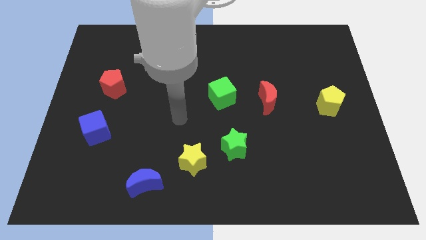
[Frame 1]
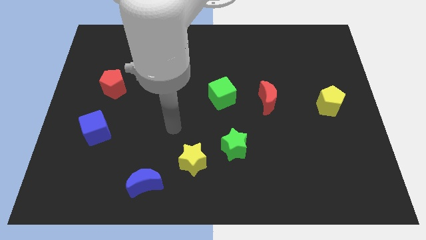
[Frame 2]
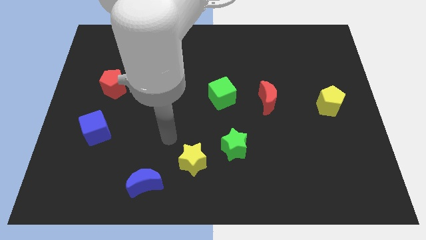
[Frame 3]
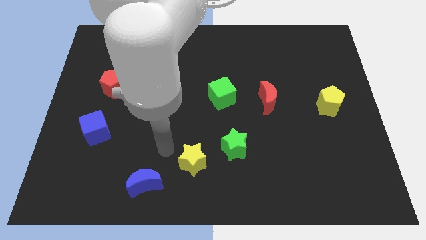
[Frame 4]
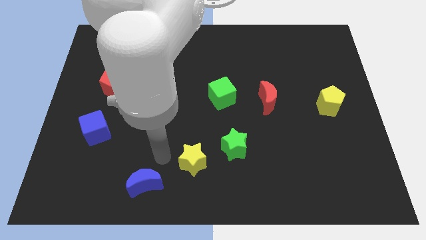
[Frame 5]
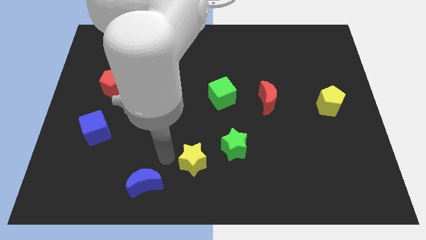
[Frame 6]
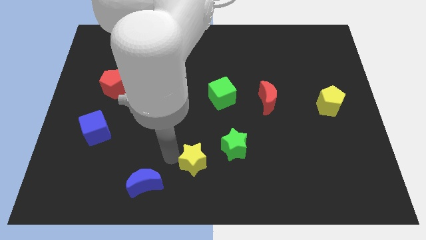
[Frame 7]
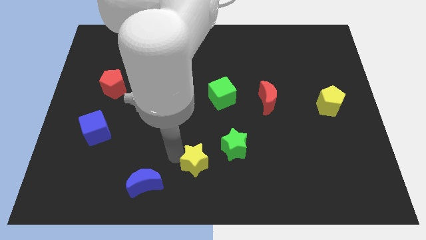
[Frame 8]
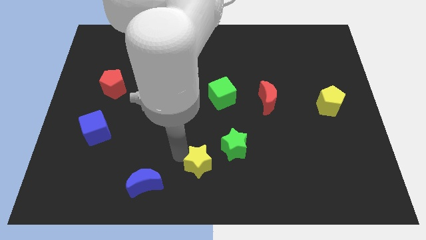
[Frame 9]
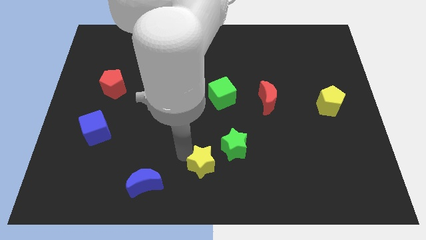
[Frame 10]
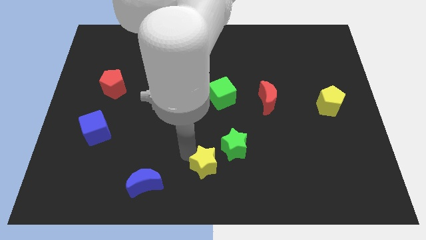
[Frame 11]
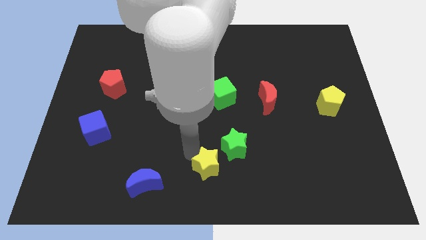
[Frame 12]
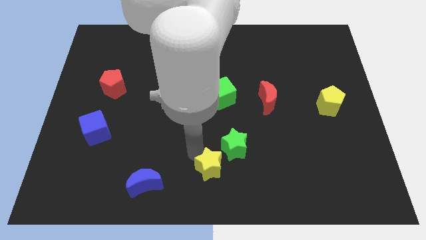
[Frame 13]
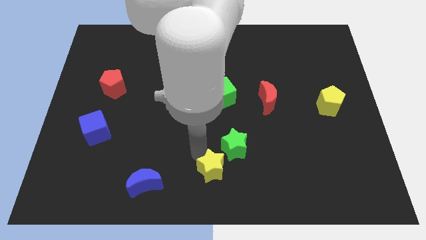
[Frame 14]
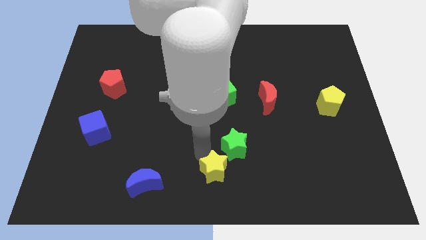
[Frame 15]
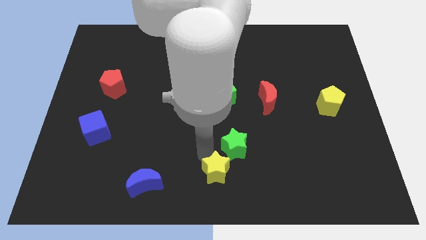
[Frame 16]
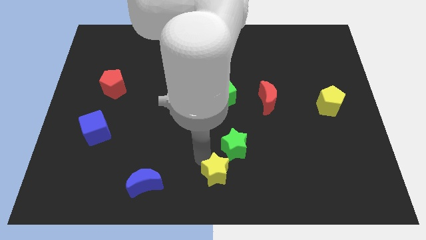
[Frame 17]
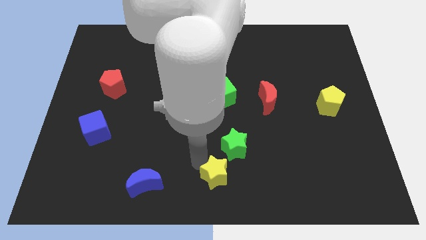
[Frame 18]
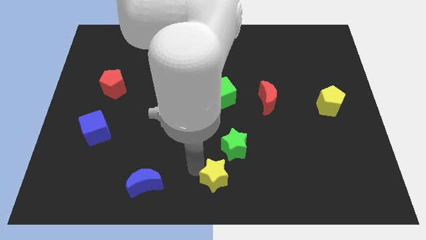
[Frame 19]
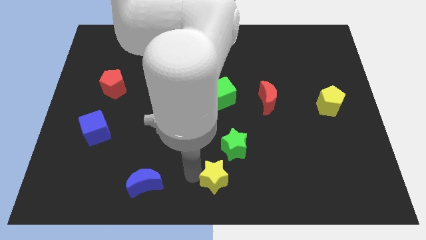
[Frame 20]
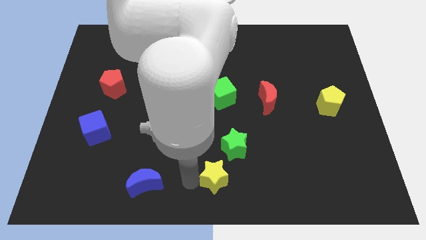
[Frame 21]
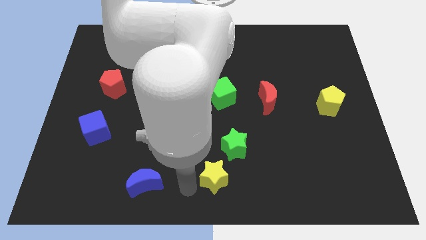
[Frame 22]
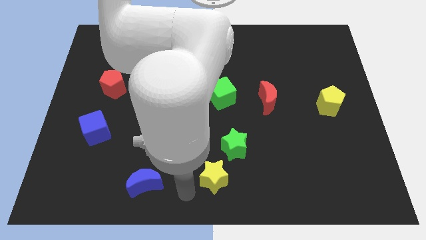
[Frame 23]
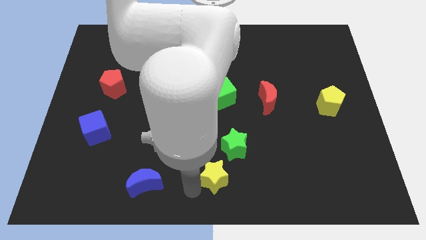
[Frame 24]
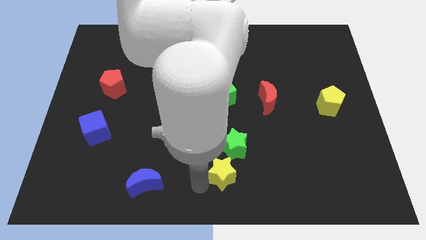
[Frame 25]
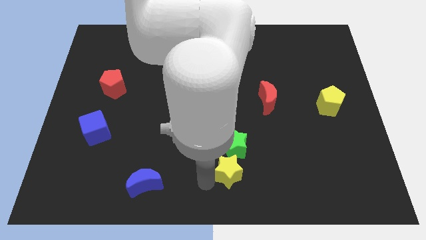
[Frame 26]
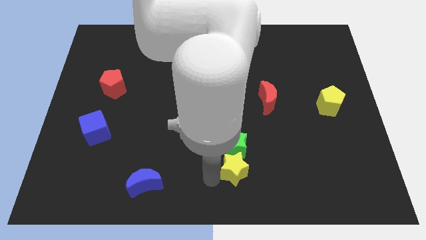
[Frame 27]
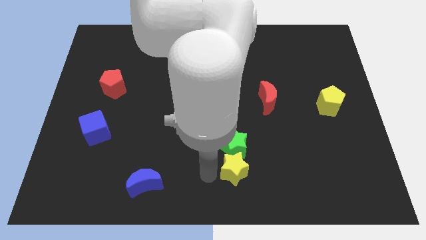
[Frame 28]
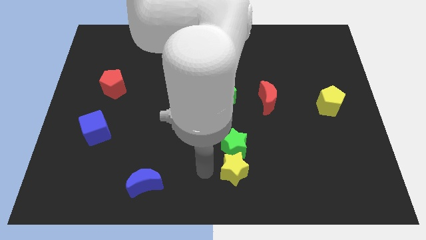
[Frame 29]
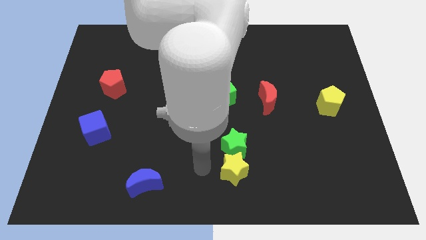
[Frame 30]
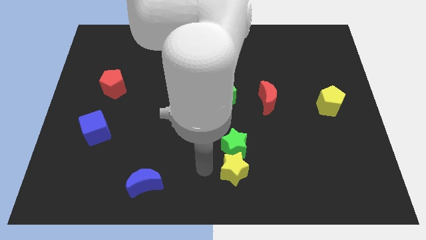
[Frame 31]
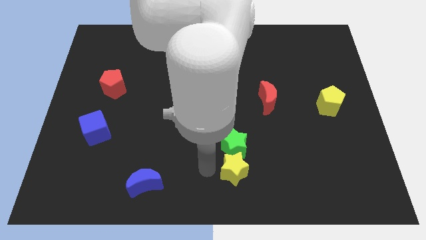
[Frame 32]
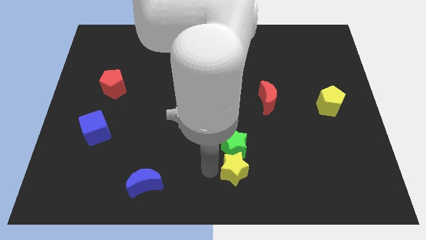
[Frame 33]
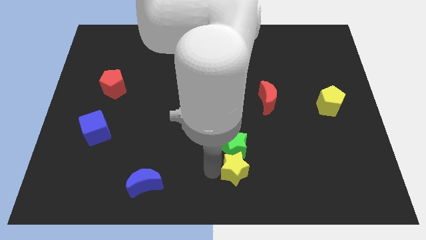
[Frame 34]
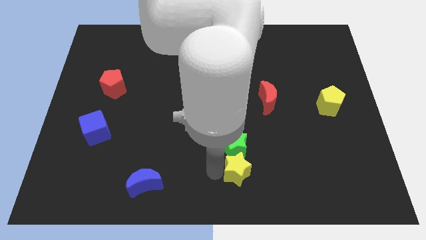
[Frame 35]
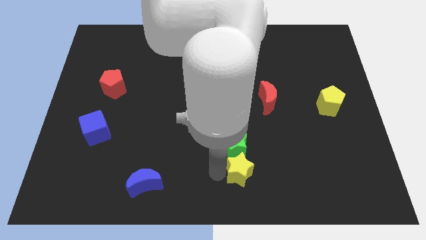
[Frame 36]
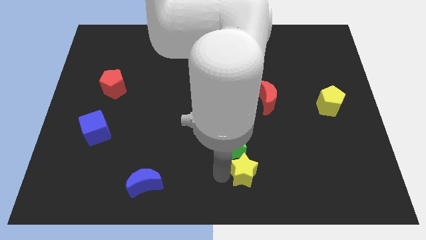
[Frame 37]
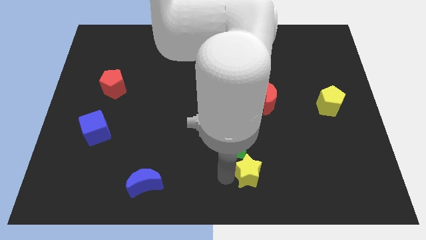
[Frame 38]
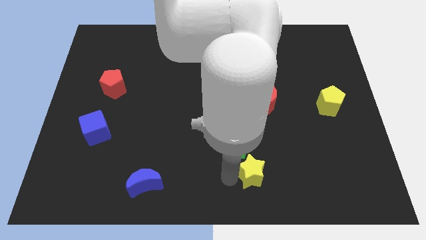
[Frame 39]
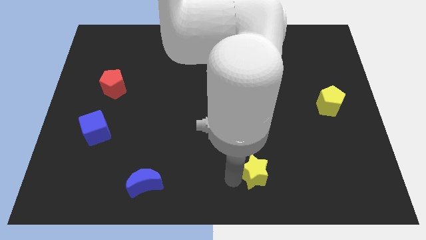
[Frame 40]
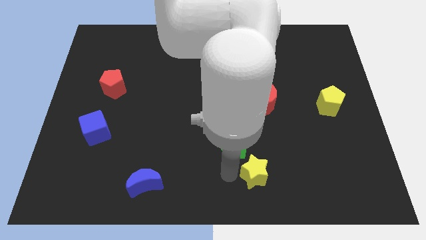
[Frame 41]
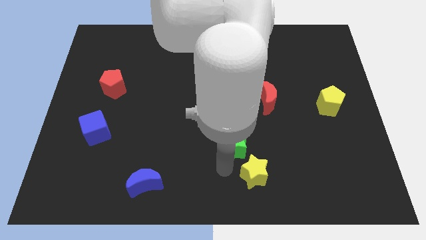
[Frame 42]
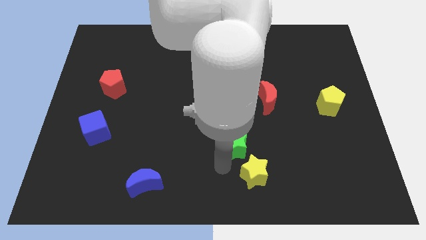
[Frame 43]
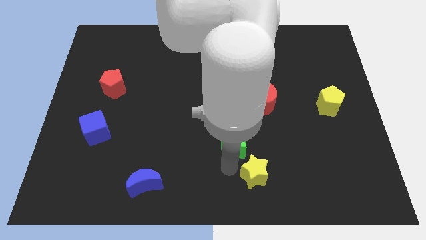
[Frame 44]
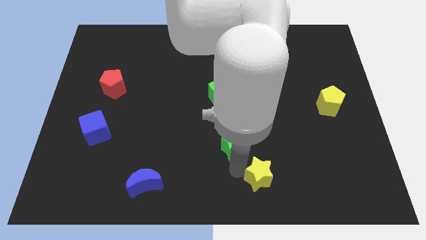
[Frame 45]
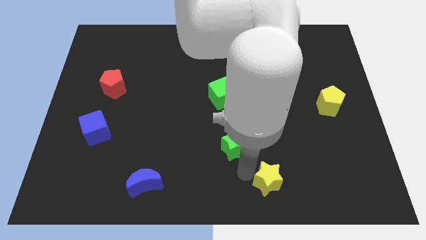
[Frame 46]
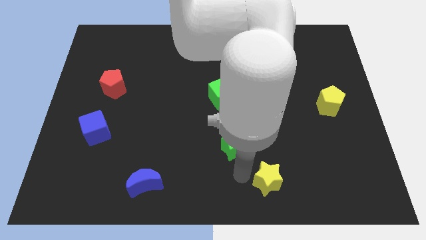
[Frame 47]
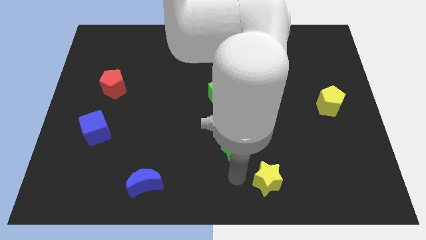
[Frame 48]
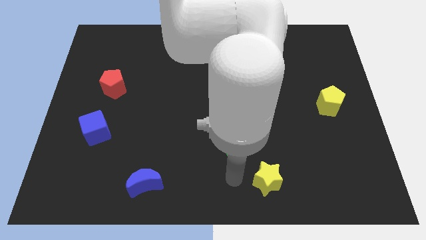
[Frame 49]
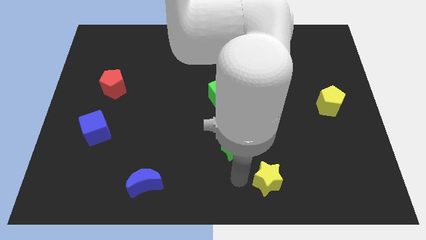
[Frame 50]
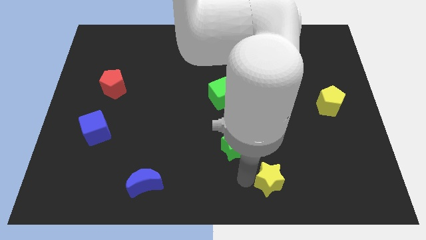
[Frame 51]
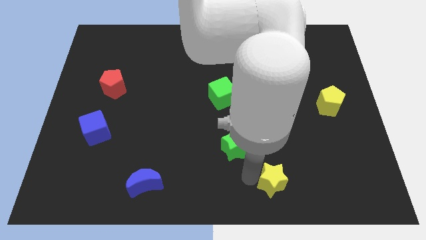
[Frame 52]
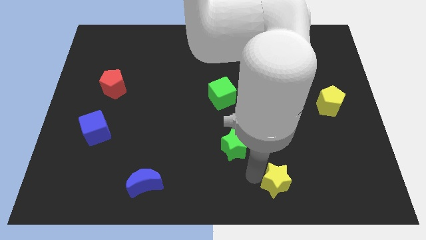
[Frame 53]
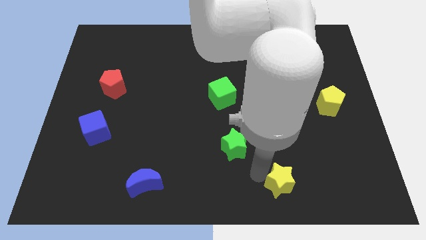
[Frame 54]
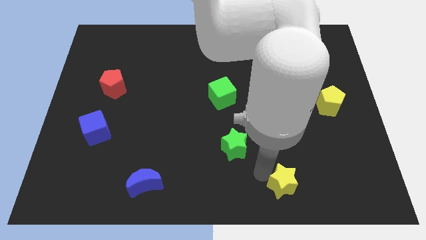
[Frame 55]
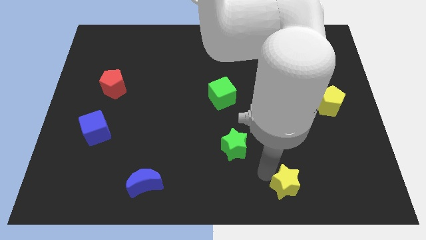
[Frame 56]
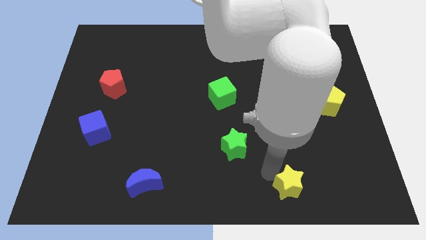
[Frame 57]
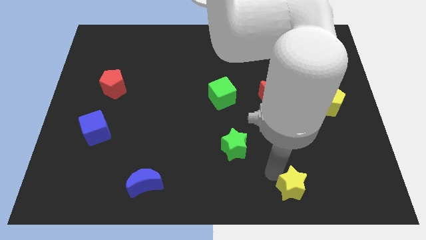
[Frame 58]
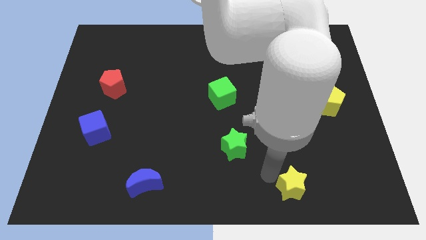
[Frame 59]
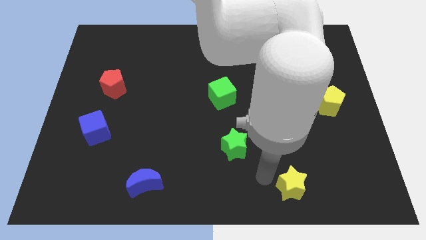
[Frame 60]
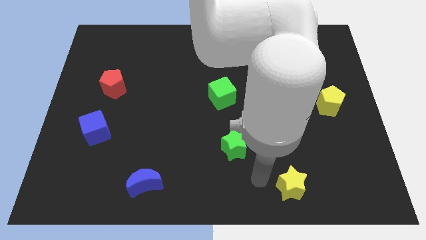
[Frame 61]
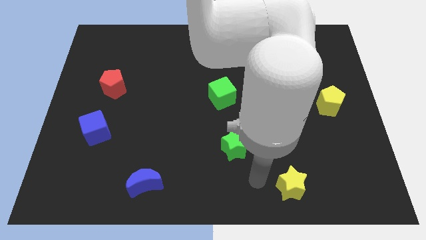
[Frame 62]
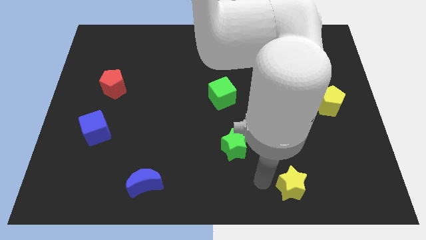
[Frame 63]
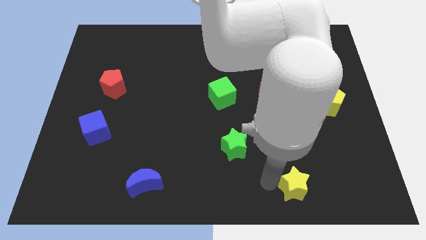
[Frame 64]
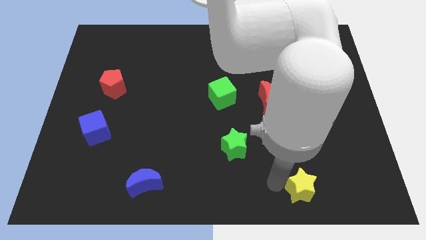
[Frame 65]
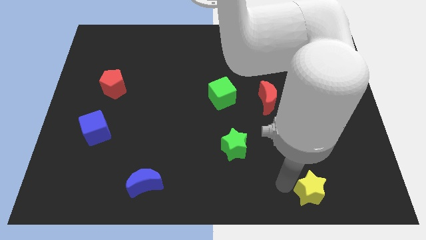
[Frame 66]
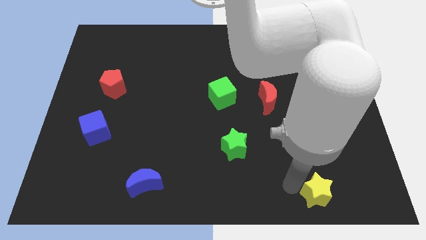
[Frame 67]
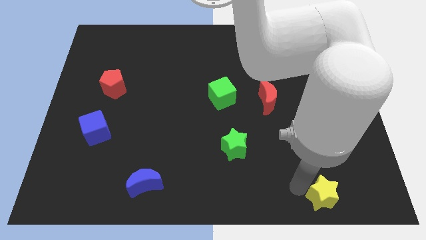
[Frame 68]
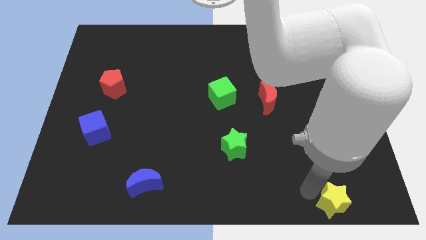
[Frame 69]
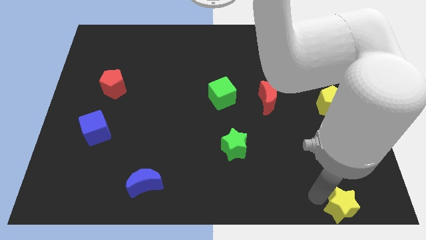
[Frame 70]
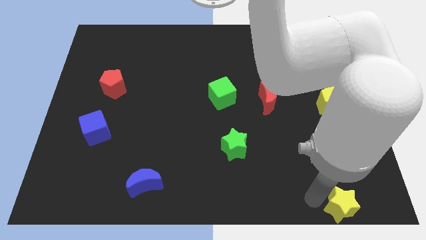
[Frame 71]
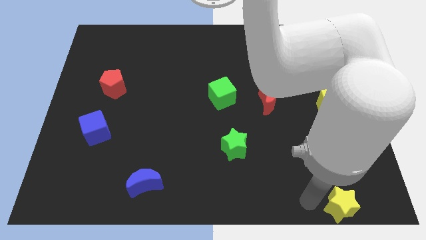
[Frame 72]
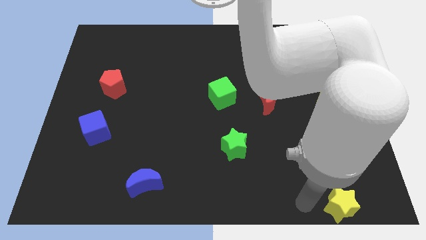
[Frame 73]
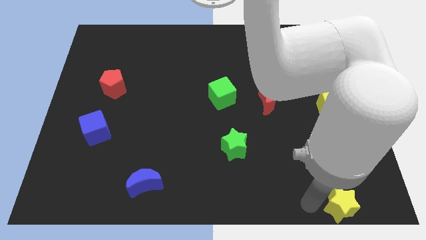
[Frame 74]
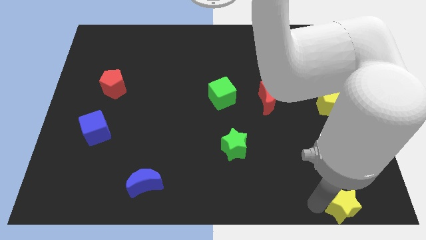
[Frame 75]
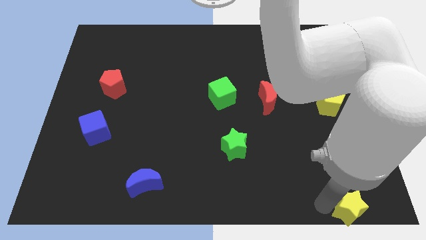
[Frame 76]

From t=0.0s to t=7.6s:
move the yellow star to the bottom right of the board
